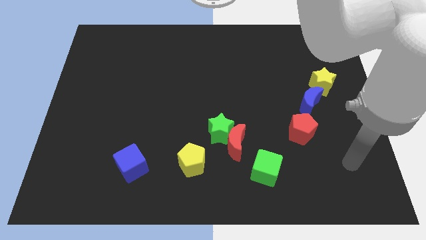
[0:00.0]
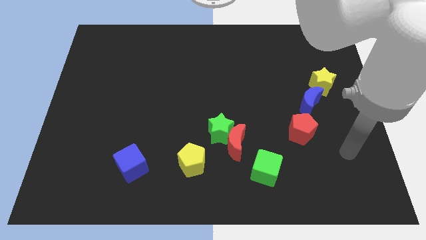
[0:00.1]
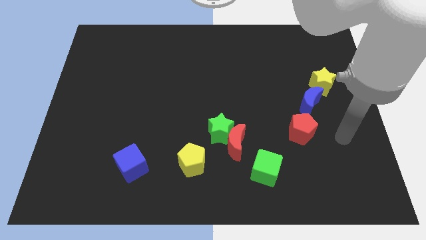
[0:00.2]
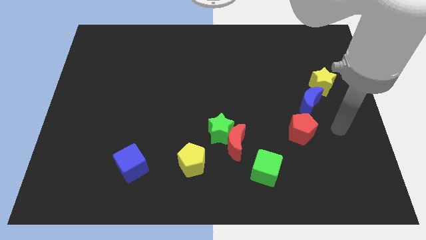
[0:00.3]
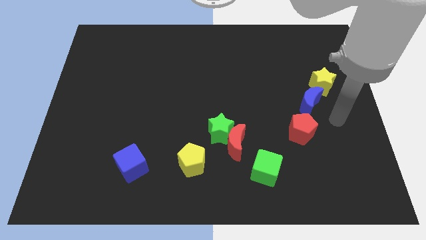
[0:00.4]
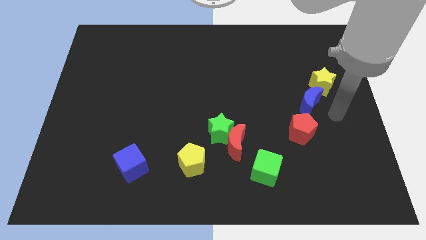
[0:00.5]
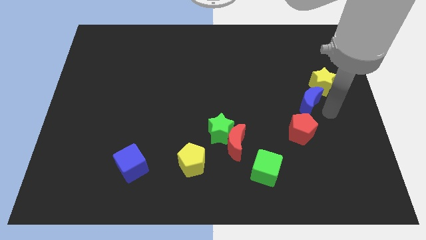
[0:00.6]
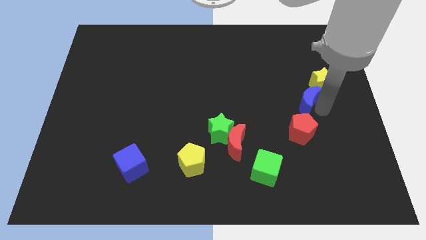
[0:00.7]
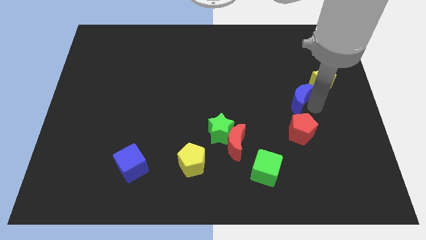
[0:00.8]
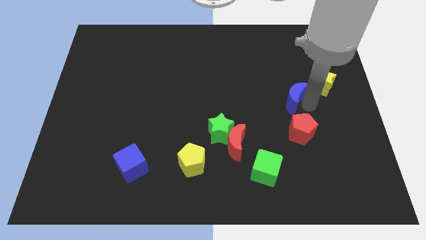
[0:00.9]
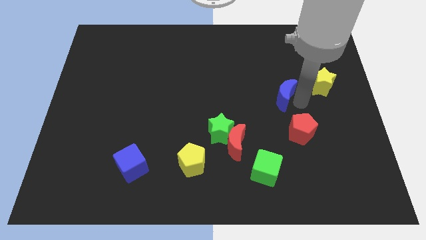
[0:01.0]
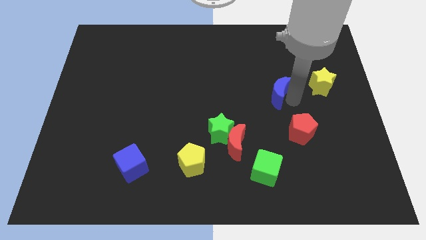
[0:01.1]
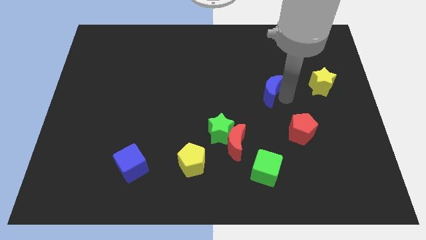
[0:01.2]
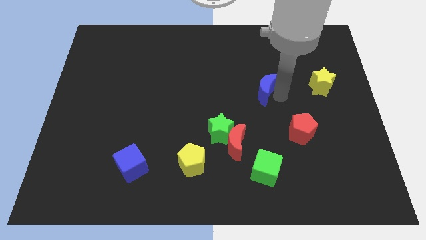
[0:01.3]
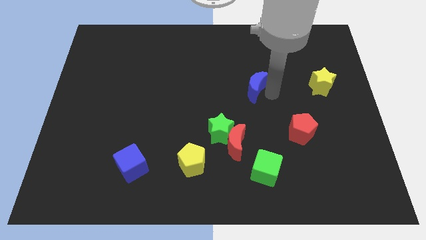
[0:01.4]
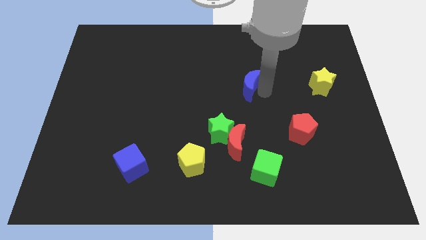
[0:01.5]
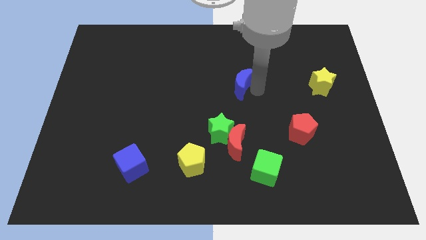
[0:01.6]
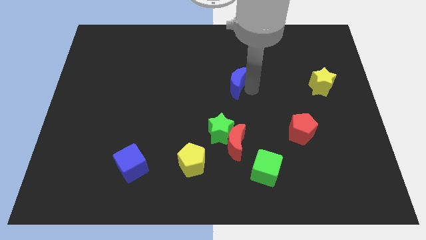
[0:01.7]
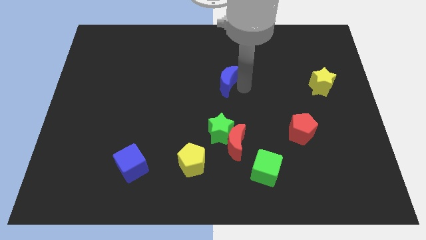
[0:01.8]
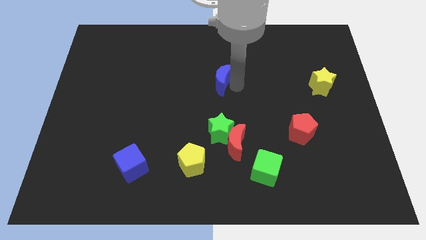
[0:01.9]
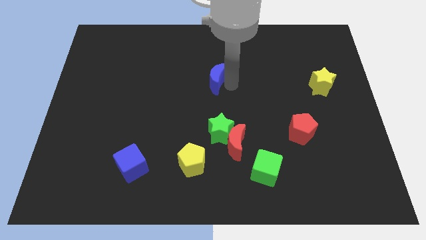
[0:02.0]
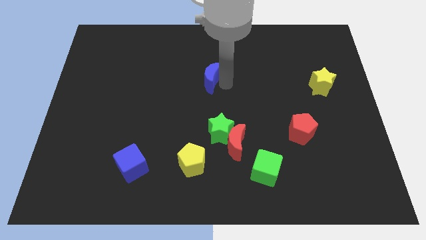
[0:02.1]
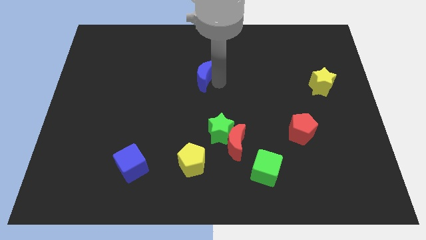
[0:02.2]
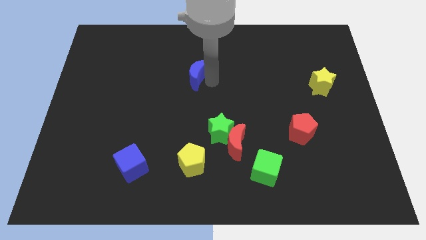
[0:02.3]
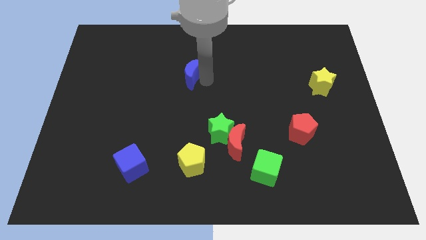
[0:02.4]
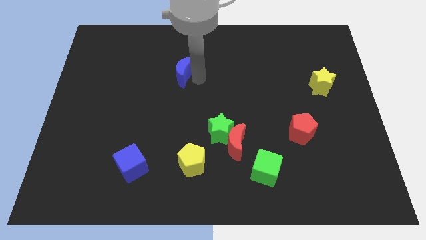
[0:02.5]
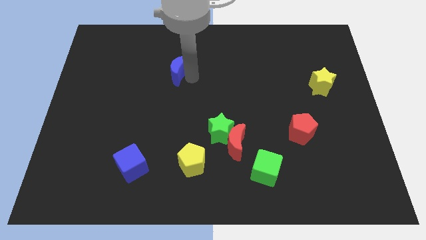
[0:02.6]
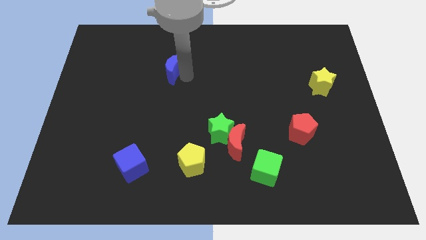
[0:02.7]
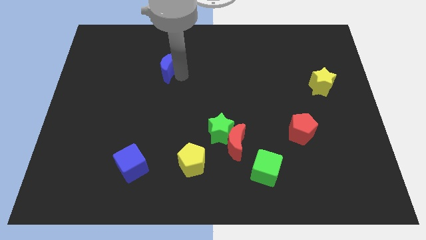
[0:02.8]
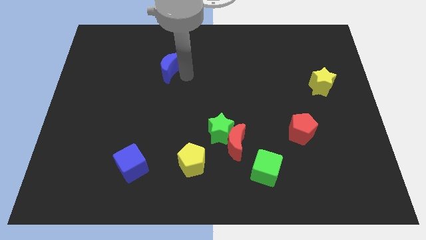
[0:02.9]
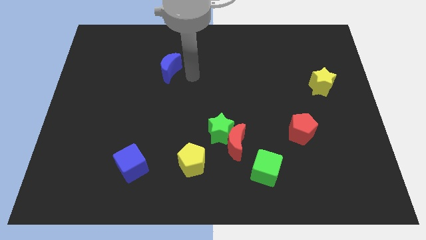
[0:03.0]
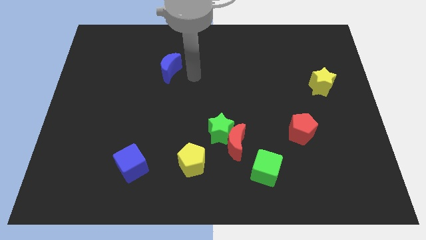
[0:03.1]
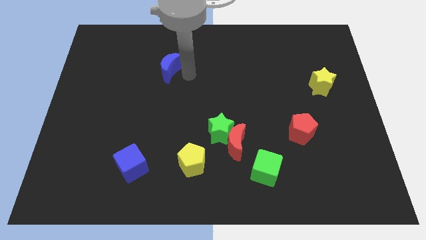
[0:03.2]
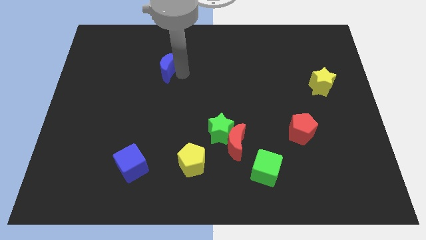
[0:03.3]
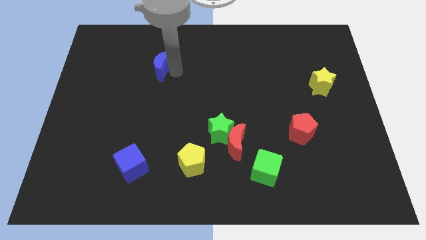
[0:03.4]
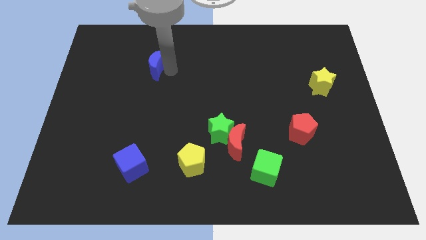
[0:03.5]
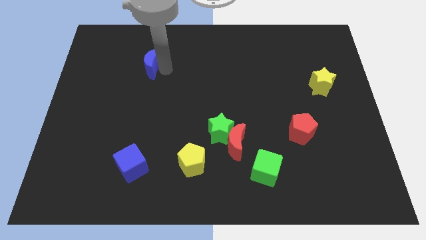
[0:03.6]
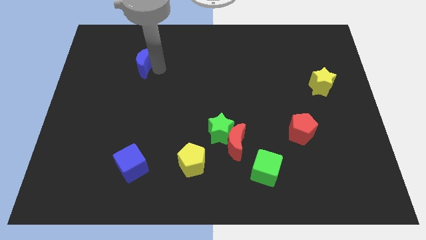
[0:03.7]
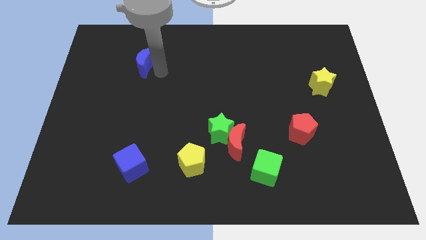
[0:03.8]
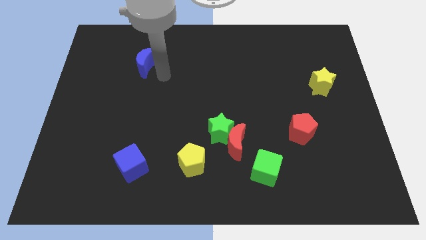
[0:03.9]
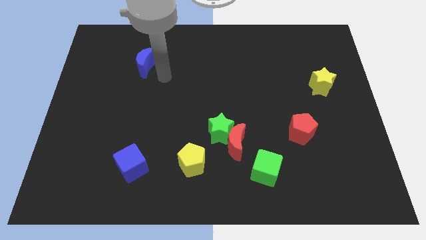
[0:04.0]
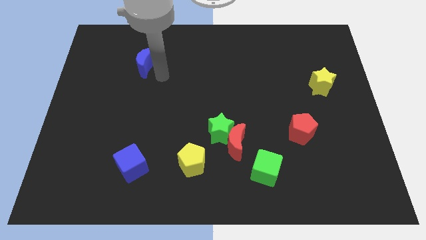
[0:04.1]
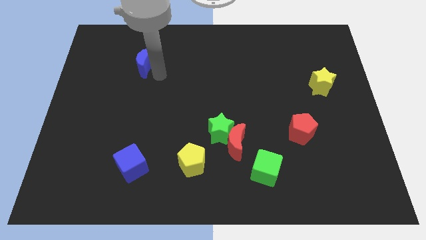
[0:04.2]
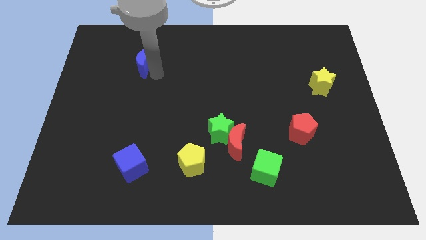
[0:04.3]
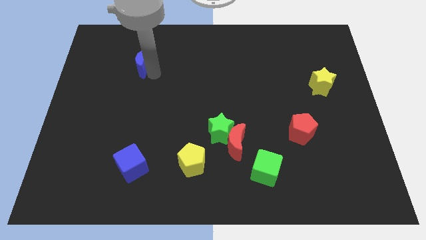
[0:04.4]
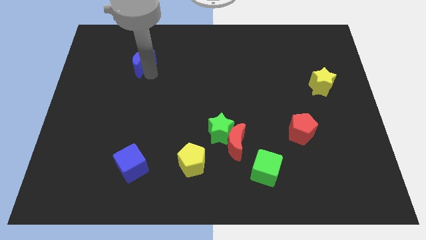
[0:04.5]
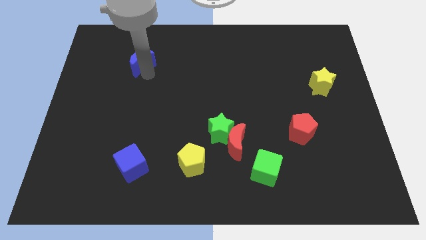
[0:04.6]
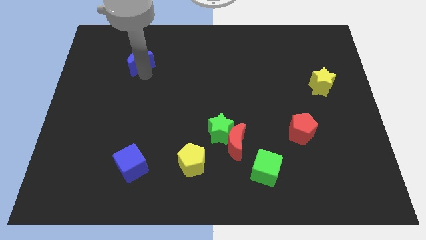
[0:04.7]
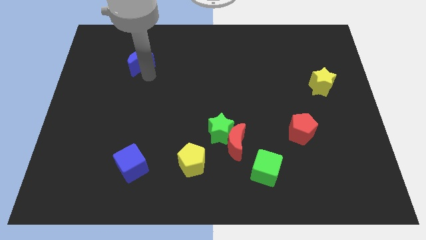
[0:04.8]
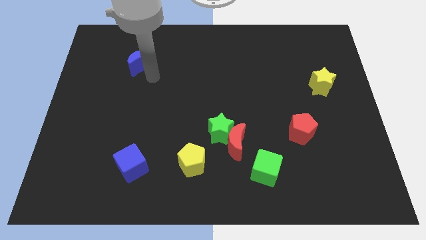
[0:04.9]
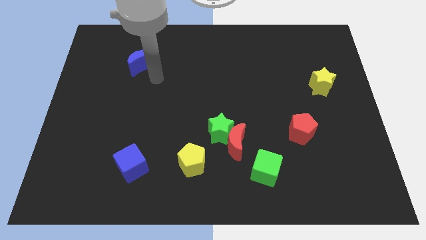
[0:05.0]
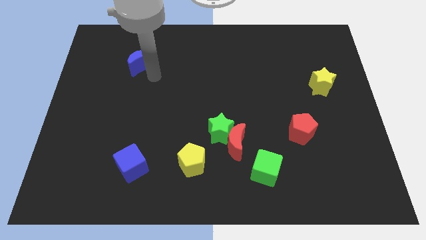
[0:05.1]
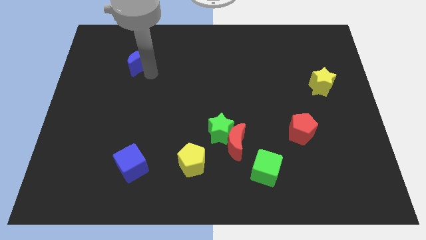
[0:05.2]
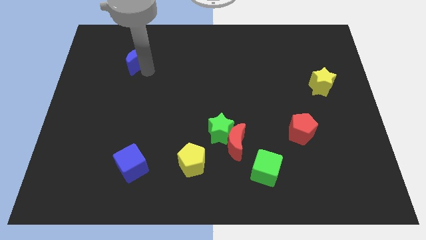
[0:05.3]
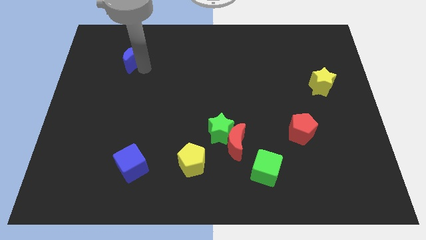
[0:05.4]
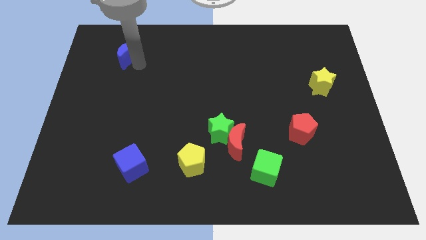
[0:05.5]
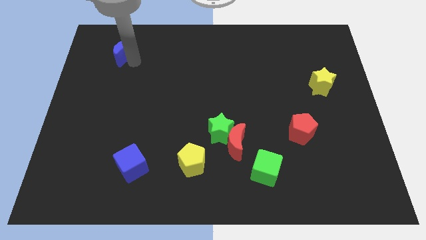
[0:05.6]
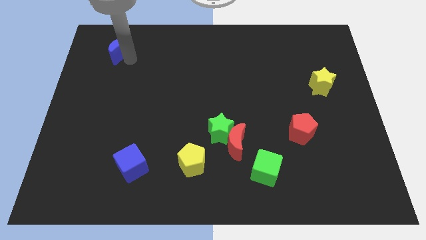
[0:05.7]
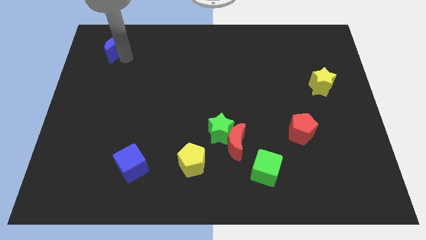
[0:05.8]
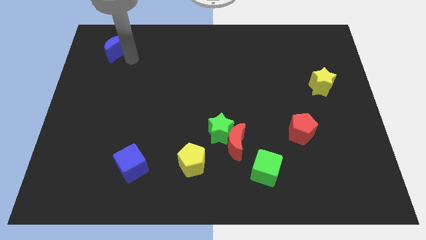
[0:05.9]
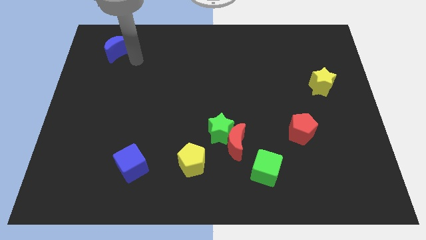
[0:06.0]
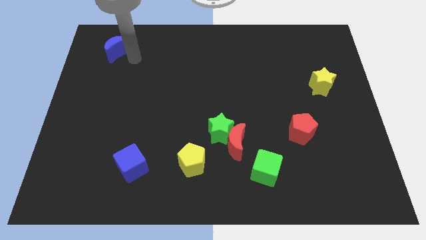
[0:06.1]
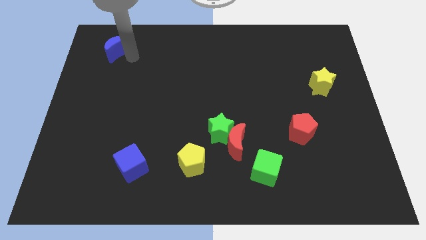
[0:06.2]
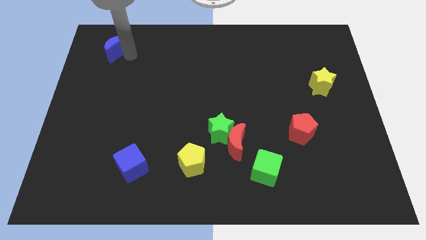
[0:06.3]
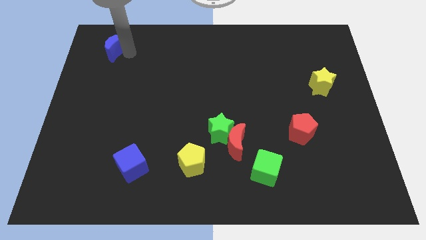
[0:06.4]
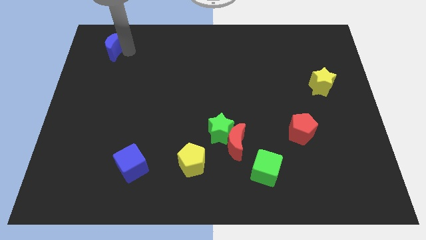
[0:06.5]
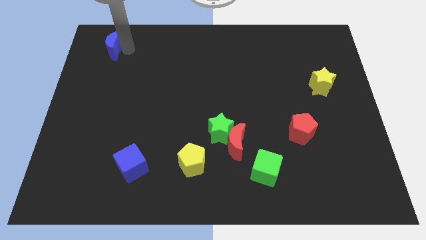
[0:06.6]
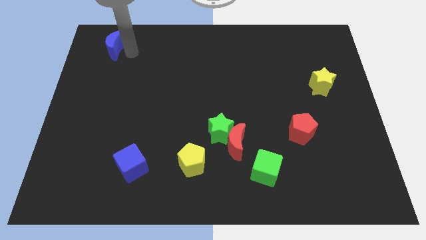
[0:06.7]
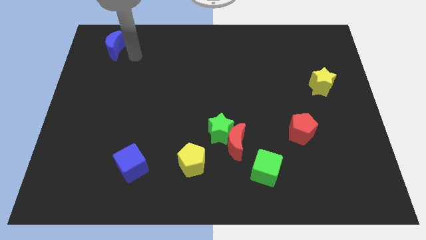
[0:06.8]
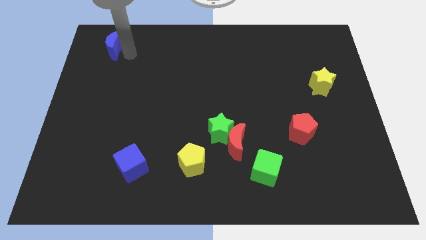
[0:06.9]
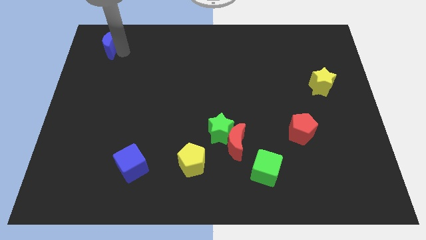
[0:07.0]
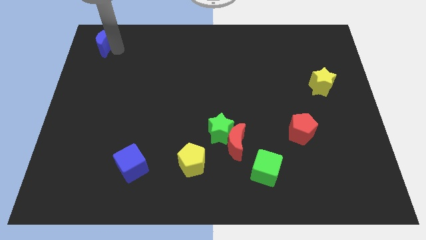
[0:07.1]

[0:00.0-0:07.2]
push the blue moon to the top left

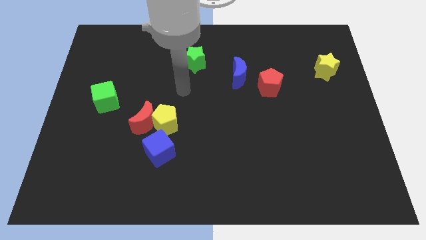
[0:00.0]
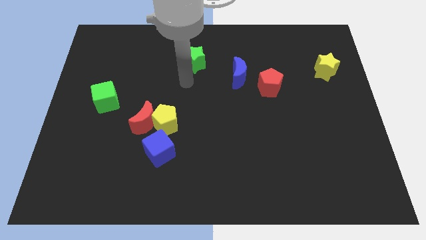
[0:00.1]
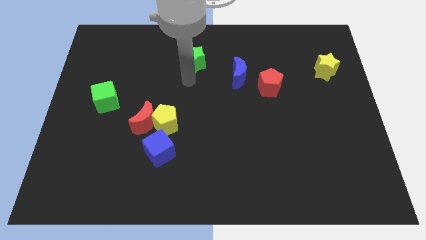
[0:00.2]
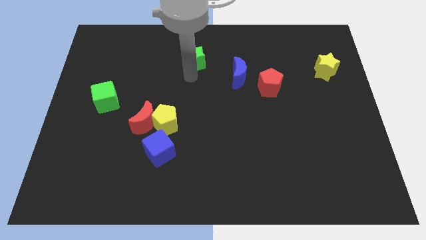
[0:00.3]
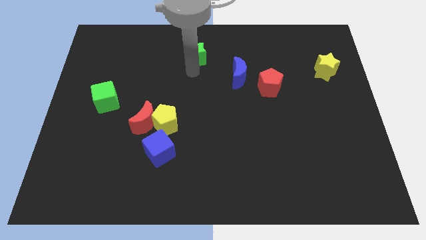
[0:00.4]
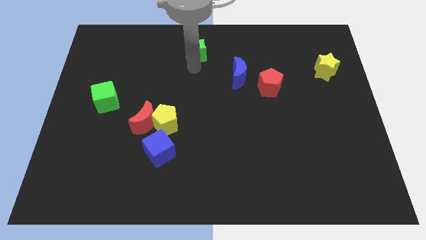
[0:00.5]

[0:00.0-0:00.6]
move the green star to the top side
